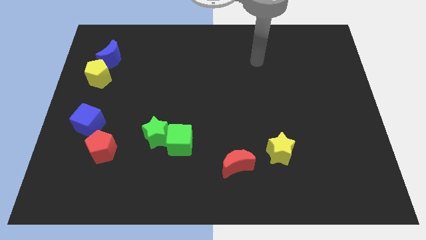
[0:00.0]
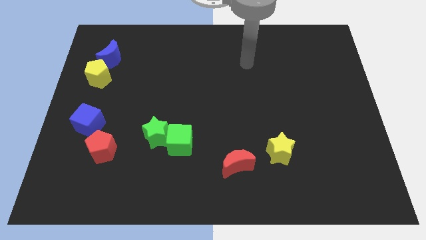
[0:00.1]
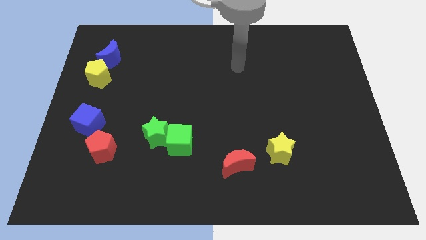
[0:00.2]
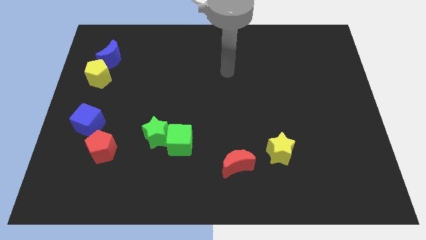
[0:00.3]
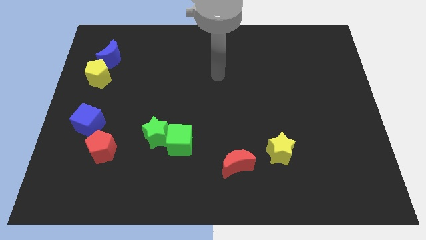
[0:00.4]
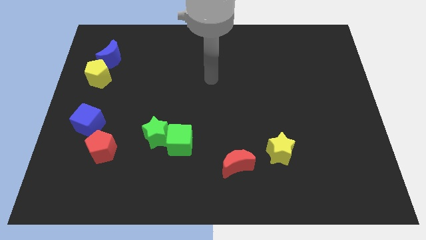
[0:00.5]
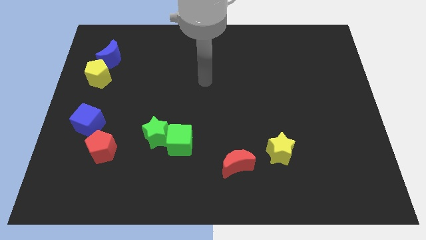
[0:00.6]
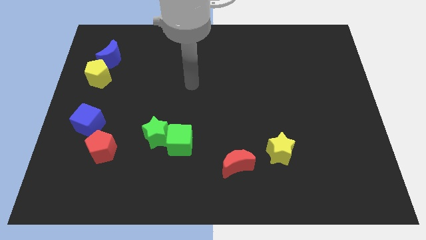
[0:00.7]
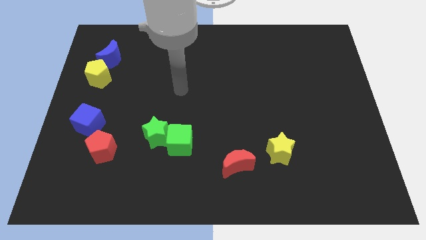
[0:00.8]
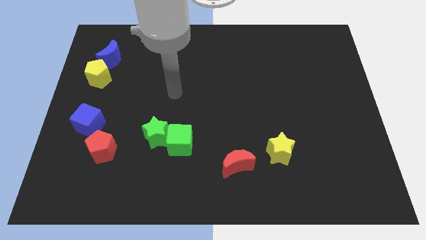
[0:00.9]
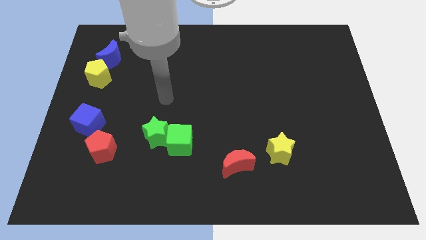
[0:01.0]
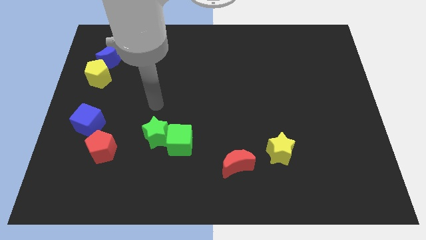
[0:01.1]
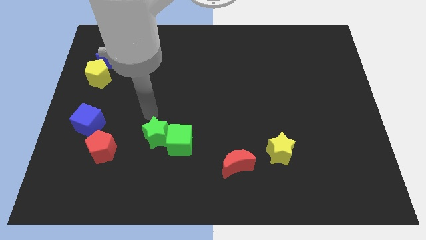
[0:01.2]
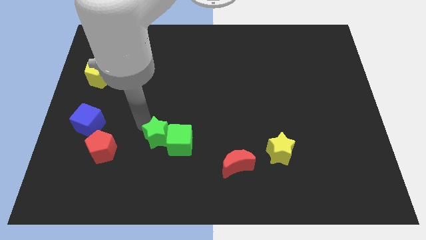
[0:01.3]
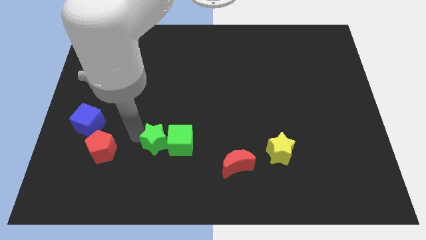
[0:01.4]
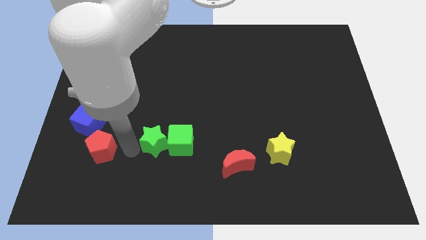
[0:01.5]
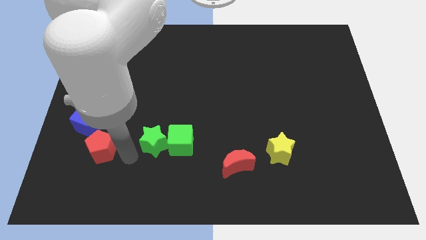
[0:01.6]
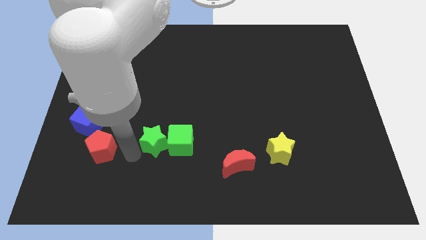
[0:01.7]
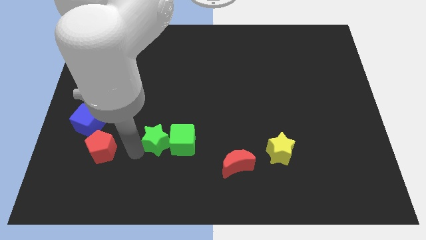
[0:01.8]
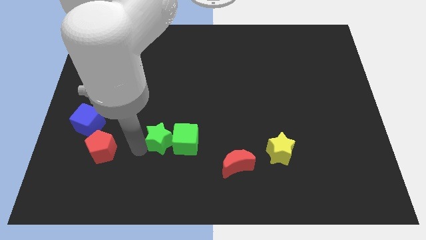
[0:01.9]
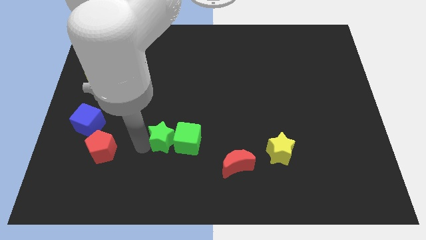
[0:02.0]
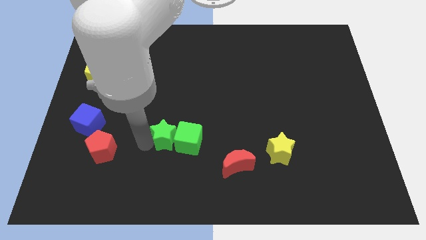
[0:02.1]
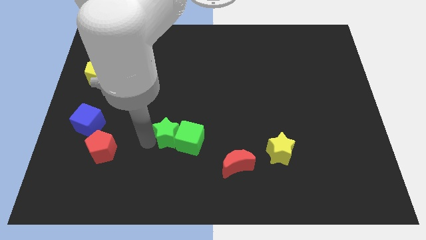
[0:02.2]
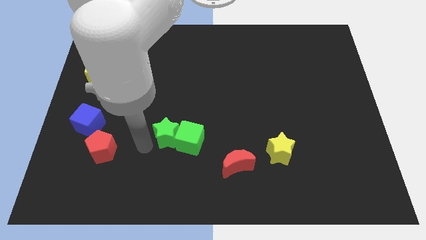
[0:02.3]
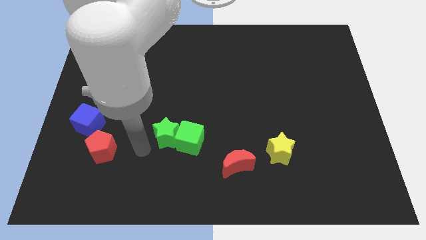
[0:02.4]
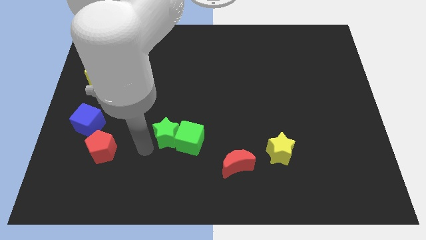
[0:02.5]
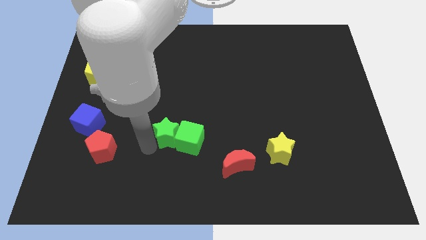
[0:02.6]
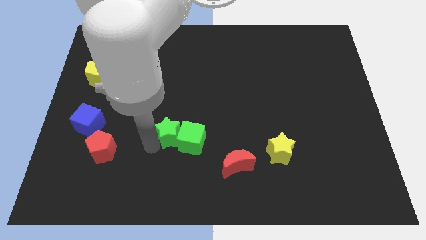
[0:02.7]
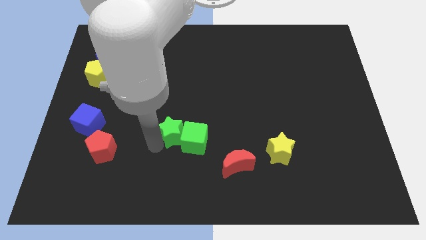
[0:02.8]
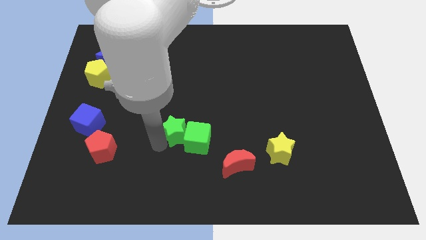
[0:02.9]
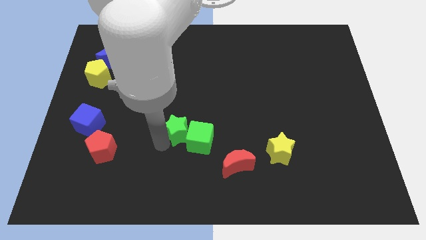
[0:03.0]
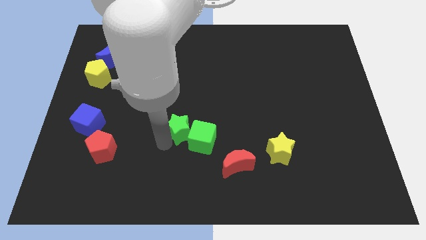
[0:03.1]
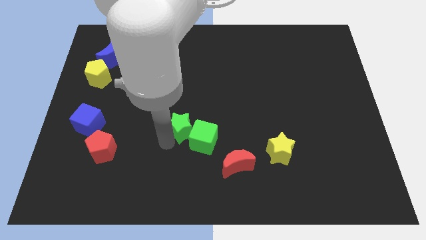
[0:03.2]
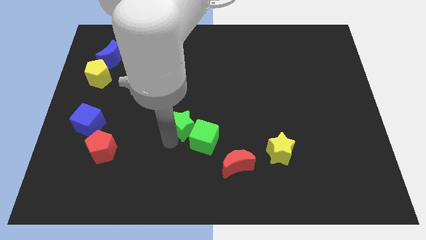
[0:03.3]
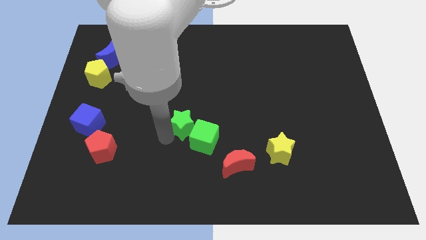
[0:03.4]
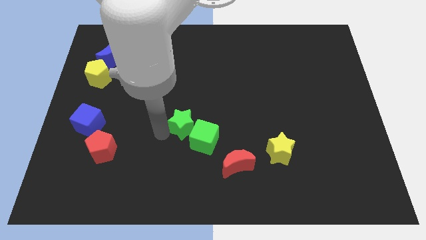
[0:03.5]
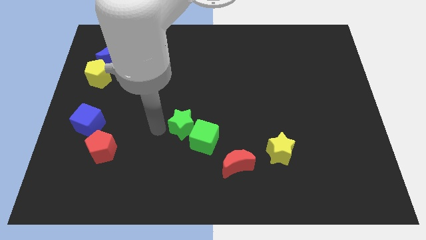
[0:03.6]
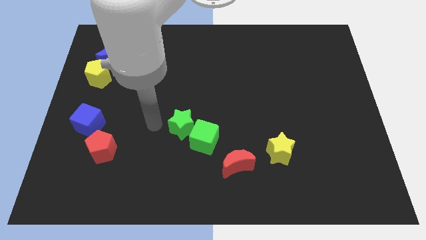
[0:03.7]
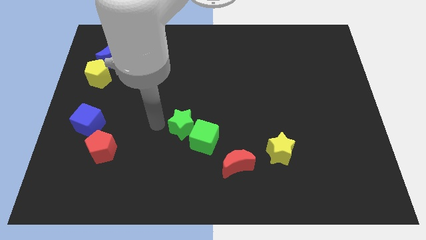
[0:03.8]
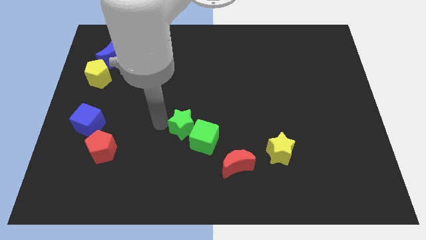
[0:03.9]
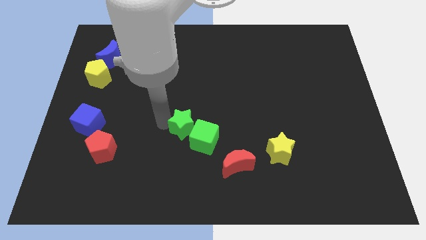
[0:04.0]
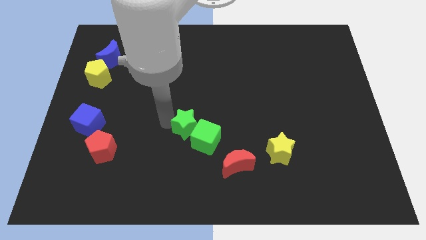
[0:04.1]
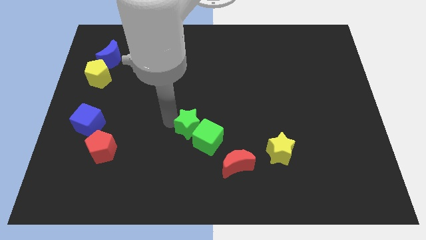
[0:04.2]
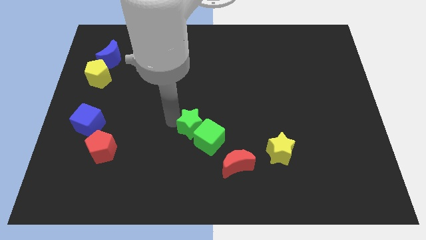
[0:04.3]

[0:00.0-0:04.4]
move the green star to the right a little

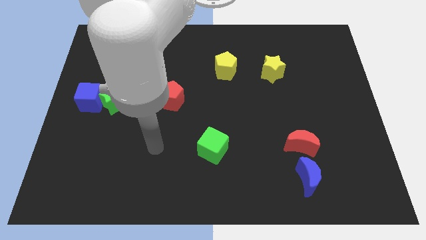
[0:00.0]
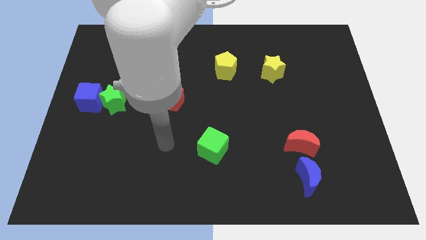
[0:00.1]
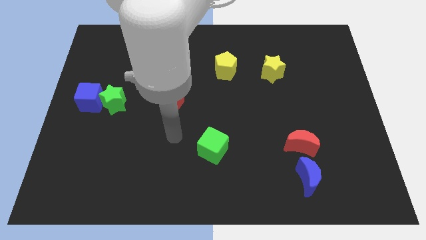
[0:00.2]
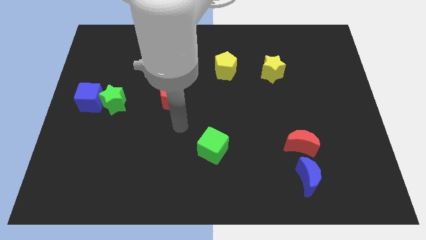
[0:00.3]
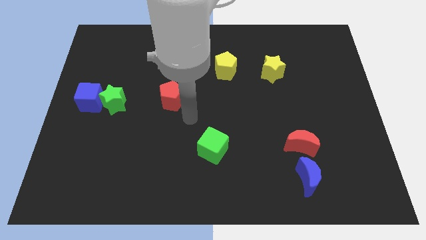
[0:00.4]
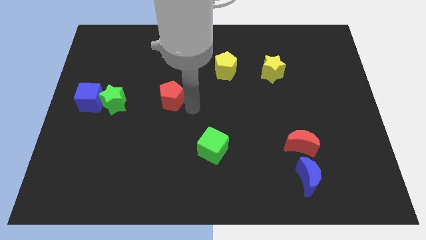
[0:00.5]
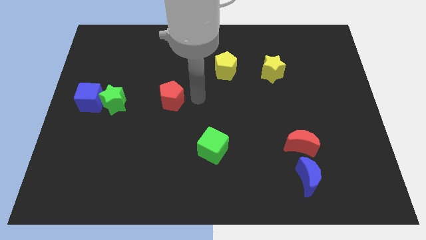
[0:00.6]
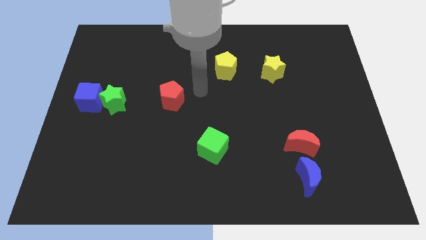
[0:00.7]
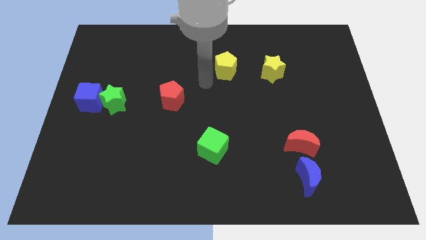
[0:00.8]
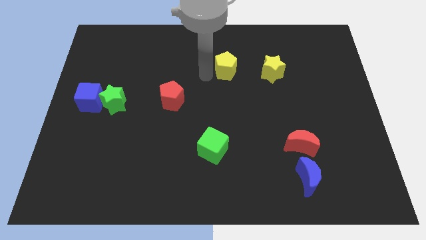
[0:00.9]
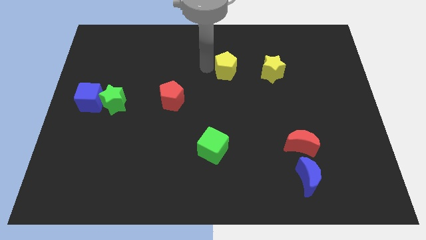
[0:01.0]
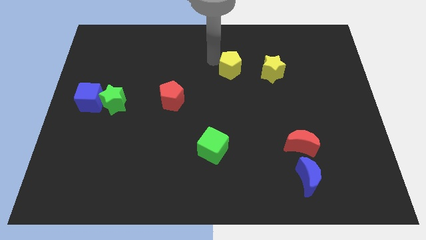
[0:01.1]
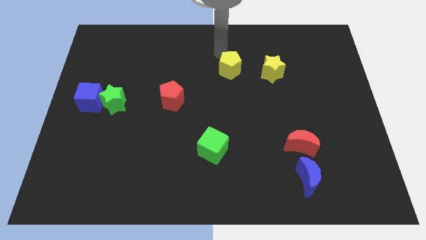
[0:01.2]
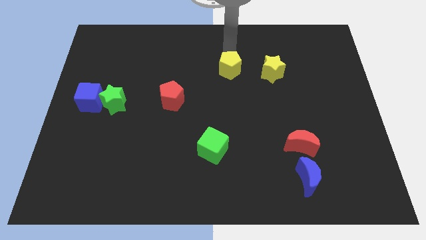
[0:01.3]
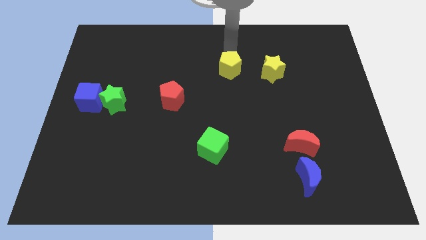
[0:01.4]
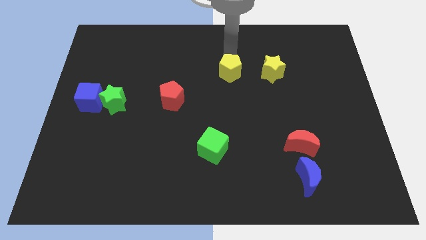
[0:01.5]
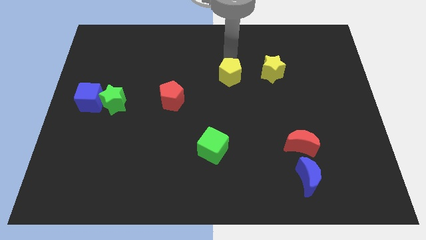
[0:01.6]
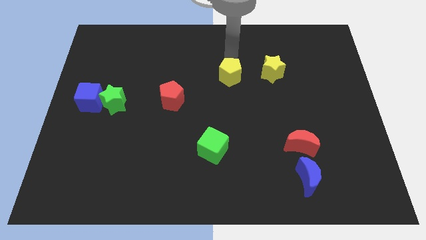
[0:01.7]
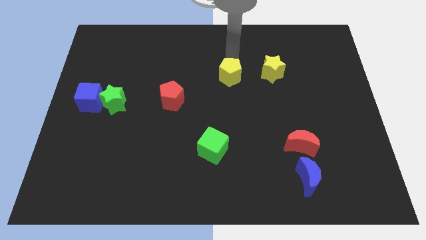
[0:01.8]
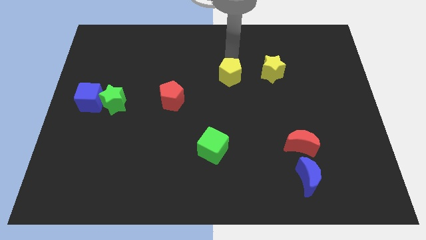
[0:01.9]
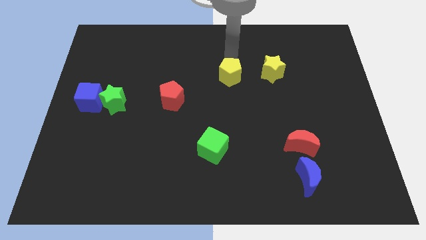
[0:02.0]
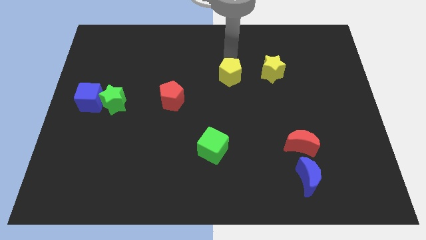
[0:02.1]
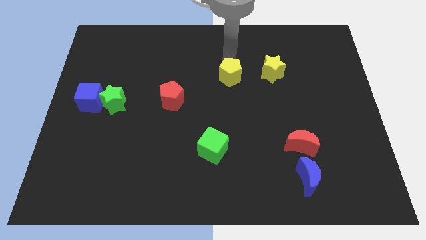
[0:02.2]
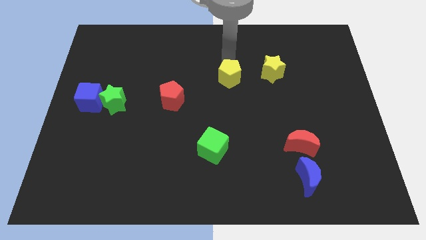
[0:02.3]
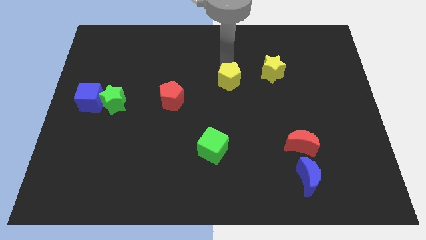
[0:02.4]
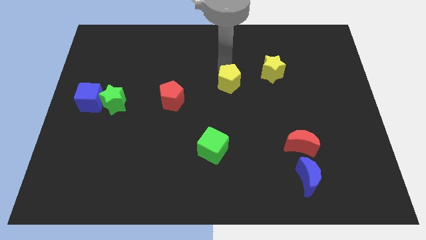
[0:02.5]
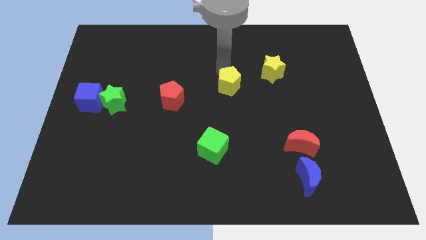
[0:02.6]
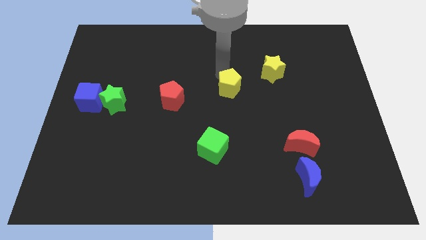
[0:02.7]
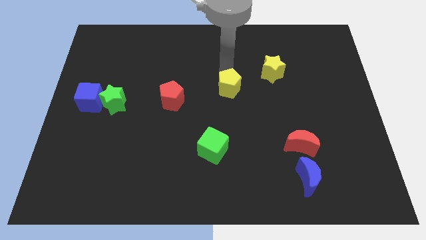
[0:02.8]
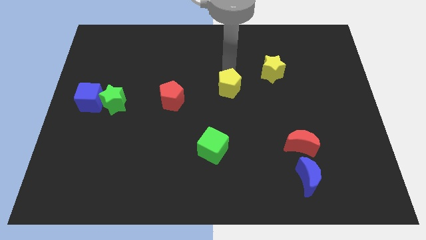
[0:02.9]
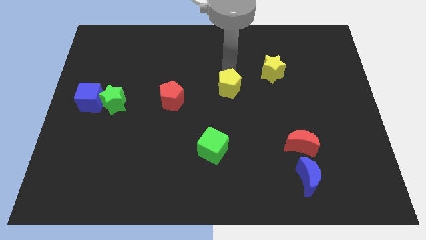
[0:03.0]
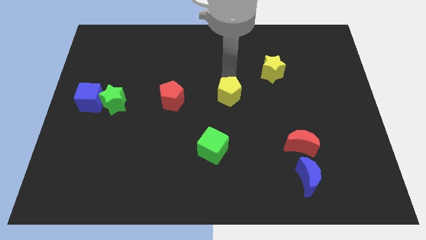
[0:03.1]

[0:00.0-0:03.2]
slide the yellow pentagon downwards somewhat
